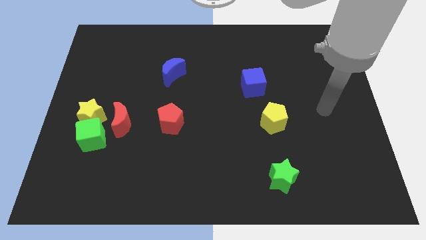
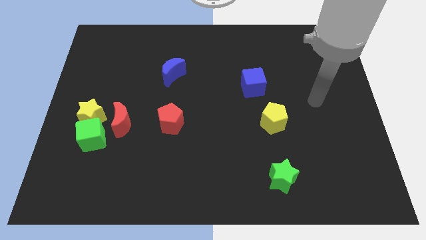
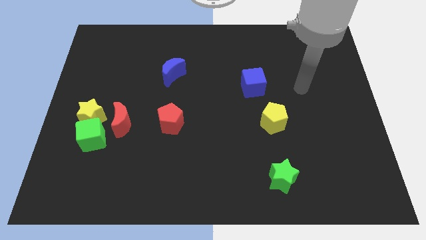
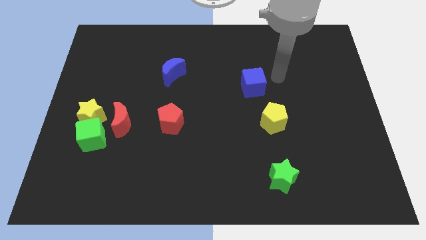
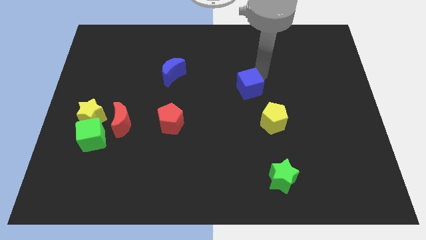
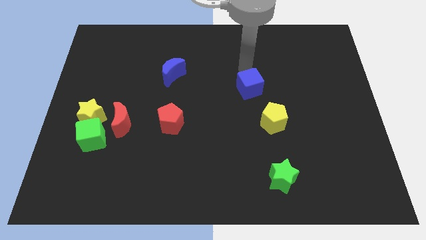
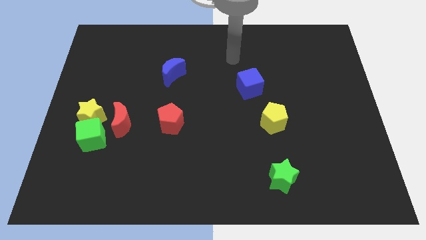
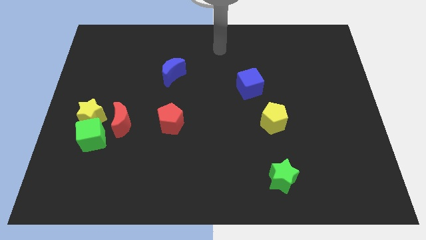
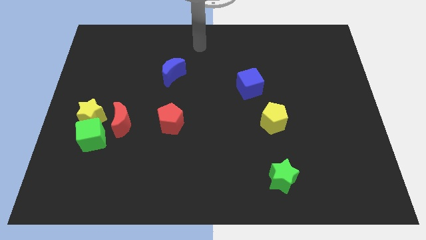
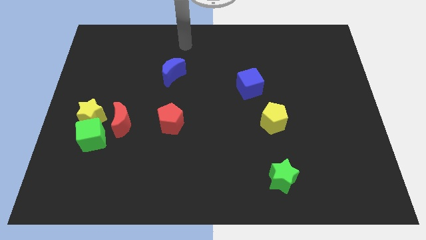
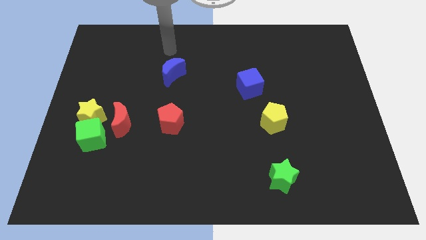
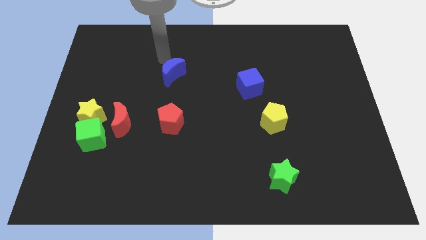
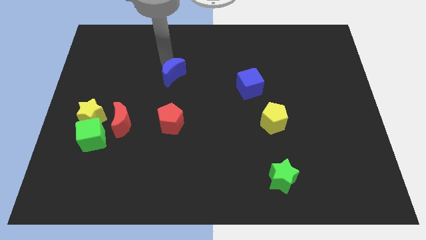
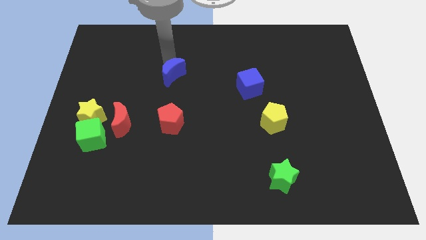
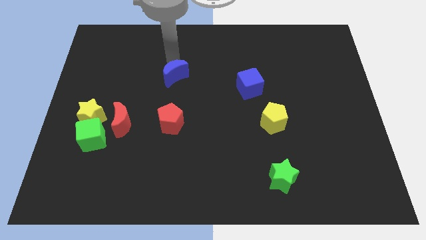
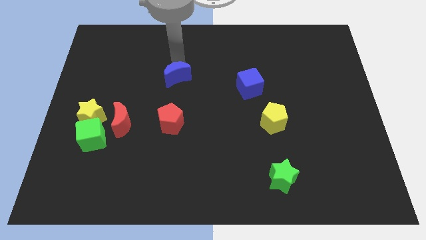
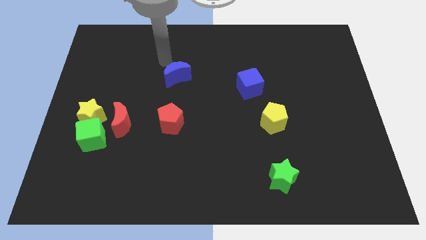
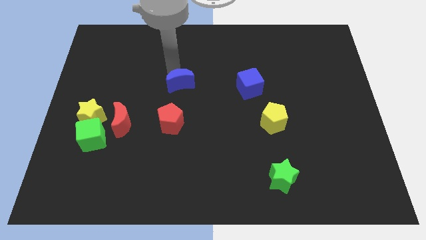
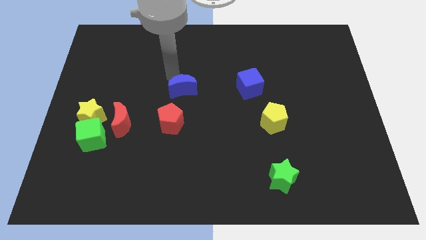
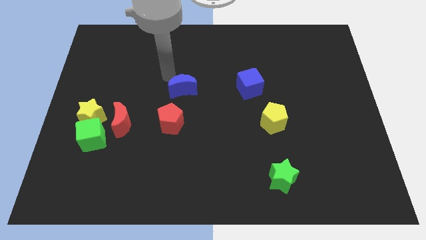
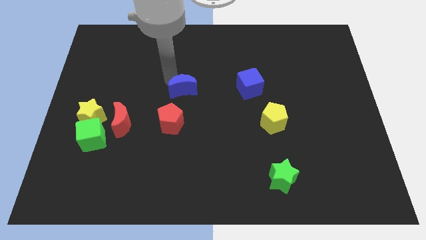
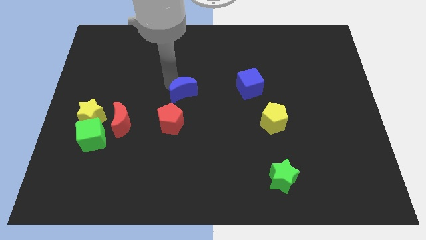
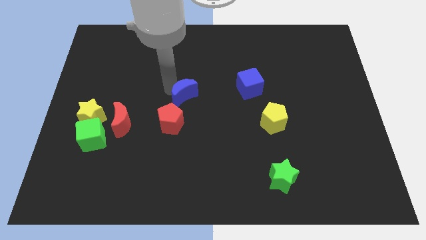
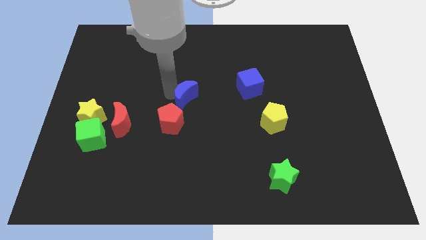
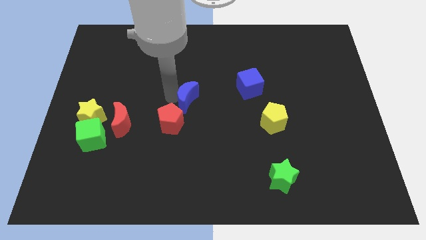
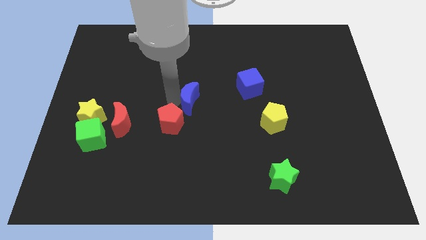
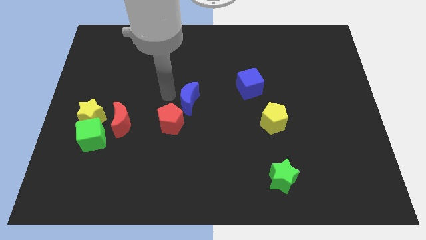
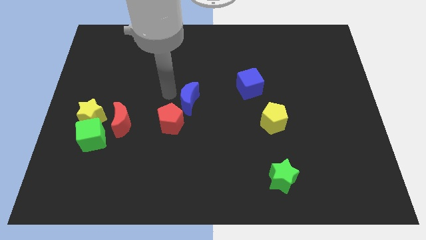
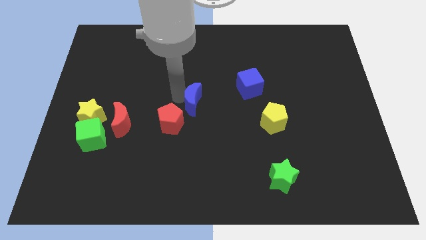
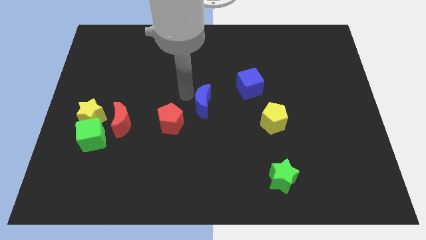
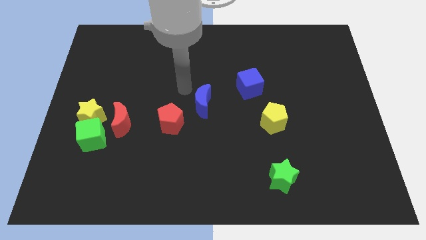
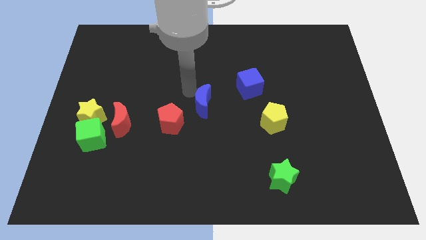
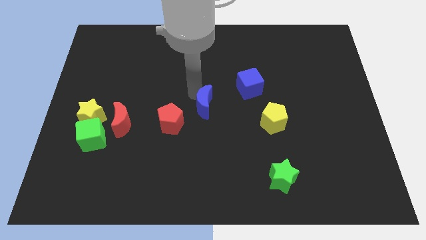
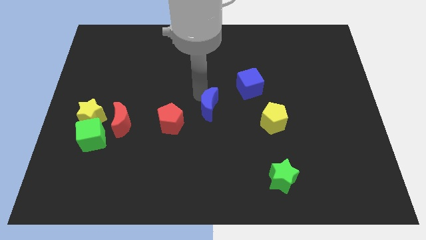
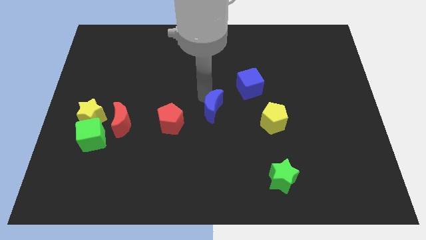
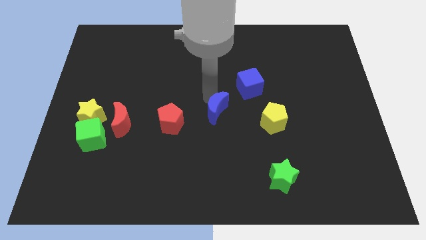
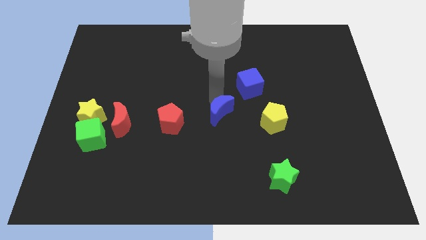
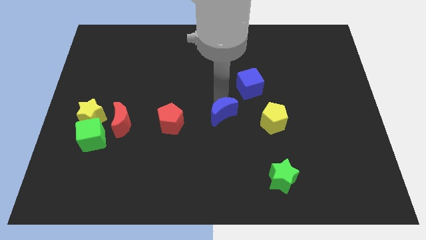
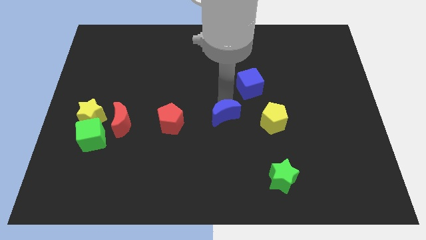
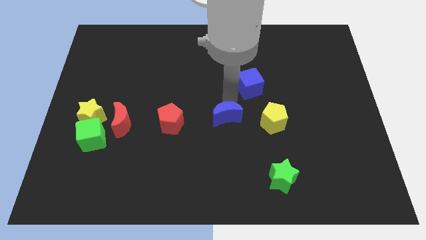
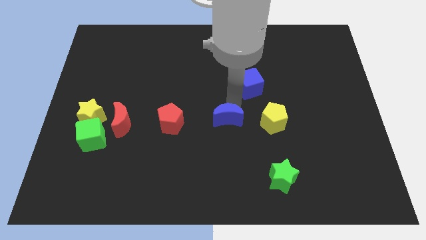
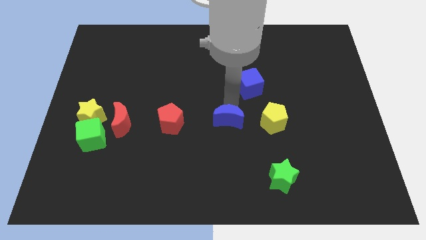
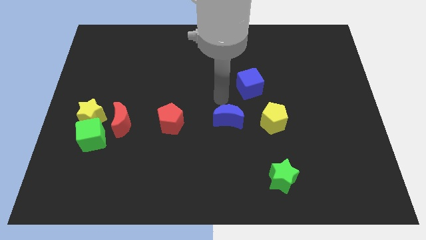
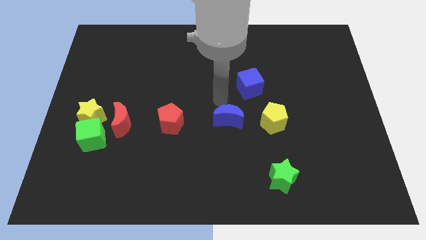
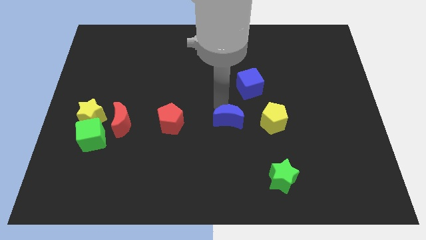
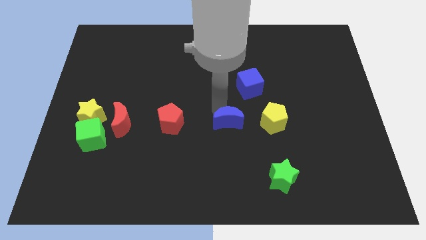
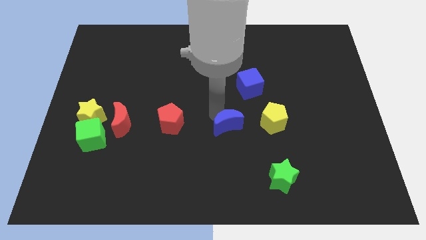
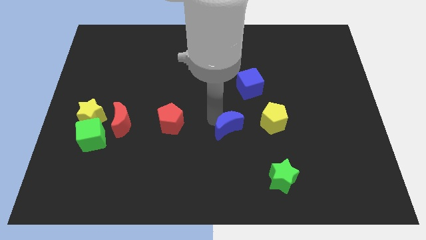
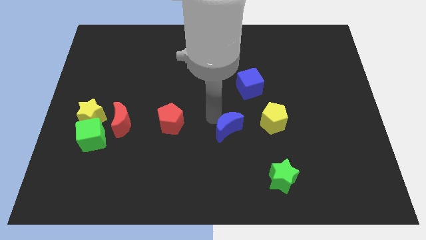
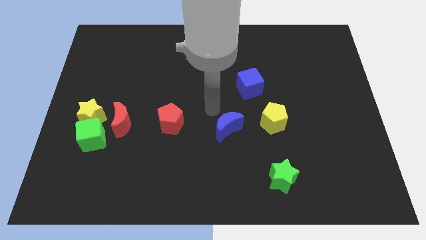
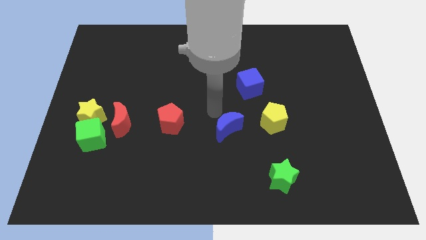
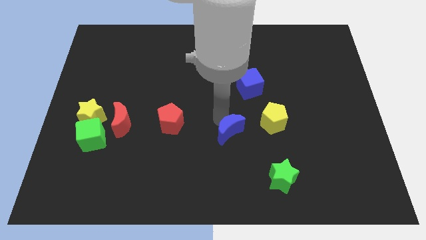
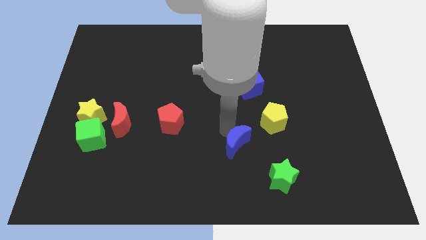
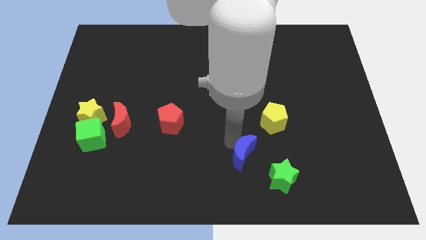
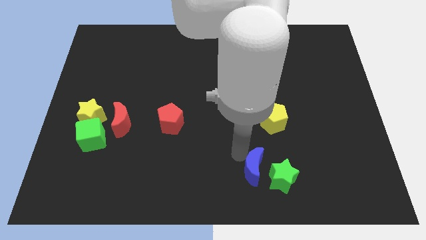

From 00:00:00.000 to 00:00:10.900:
push the blue moon towards the green star

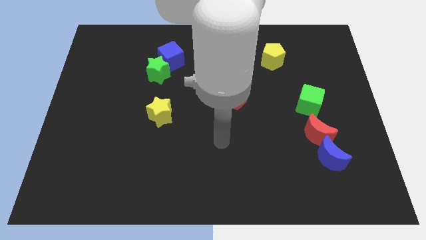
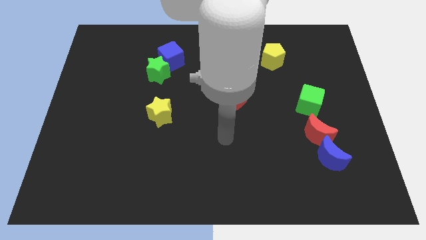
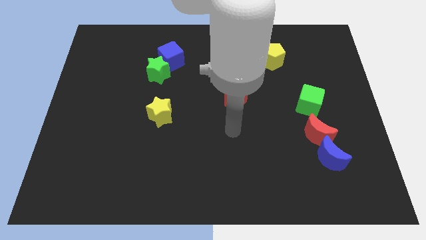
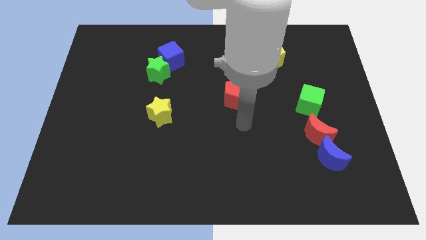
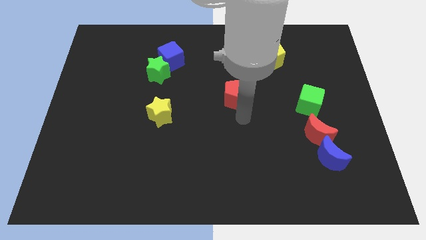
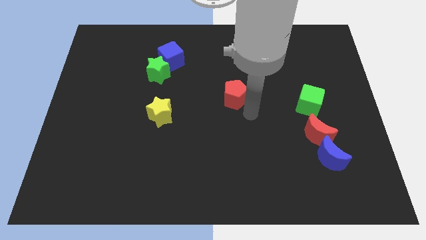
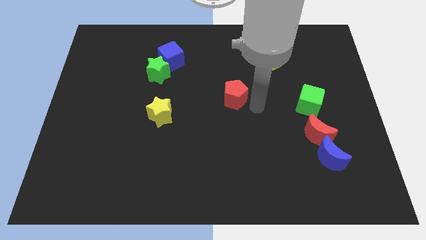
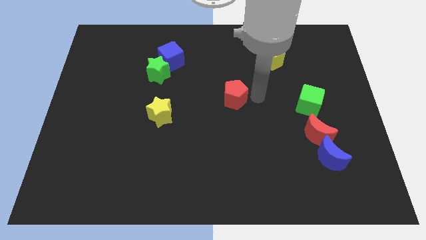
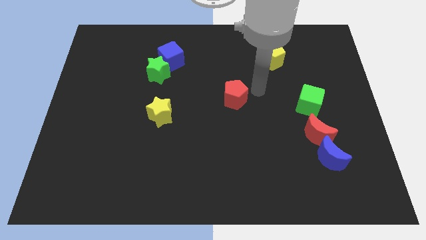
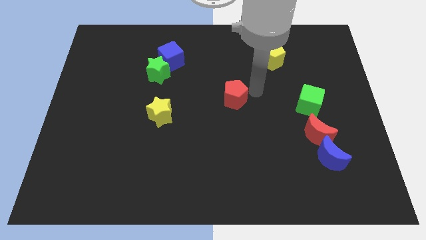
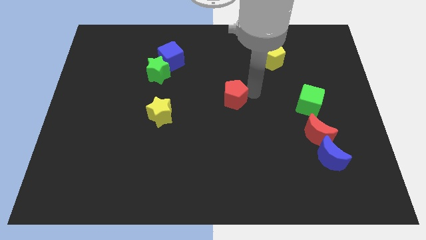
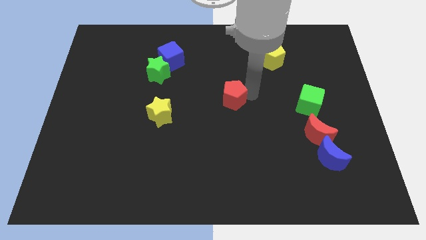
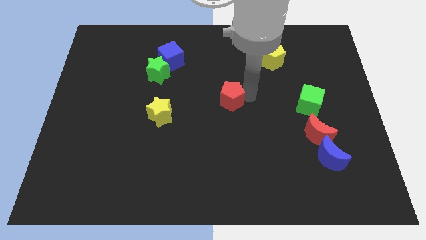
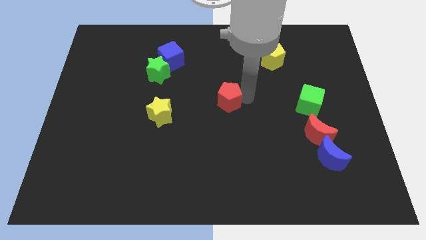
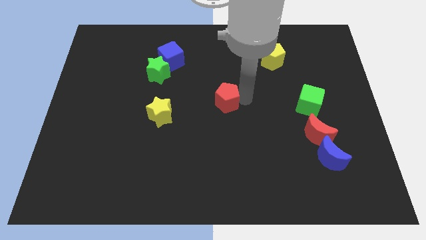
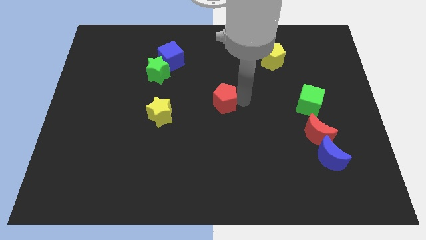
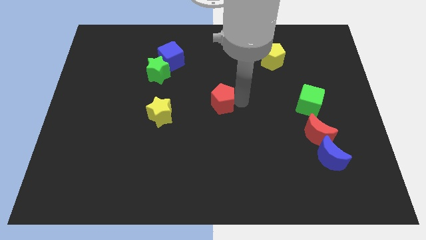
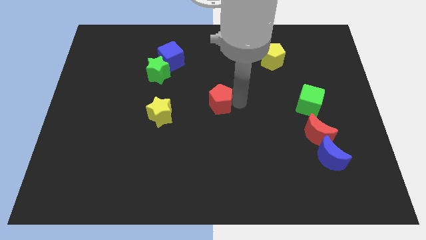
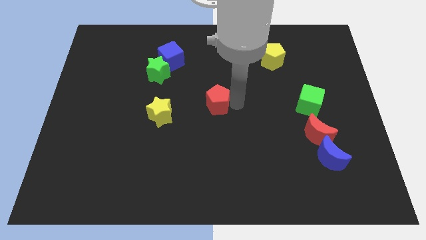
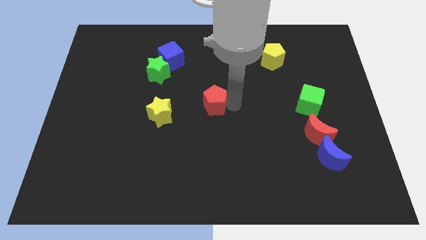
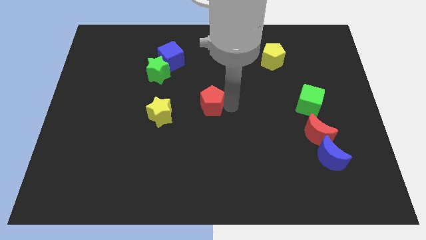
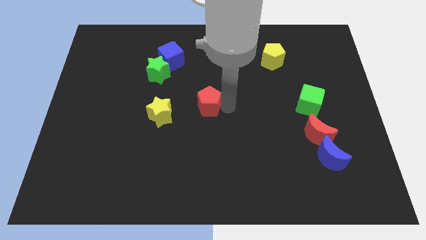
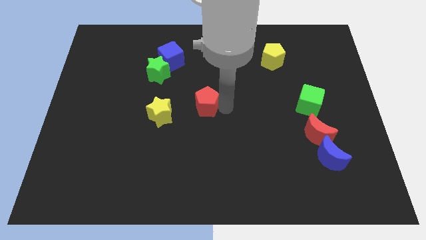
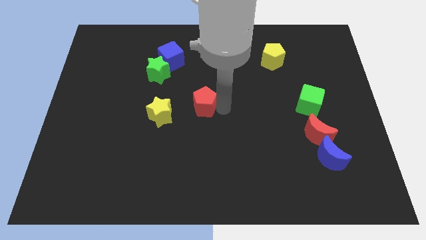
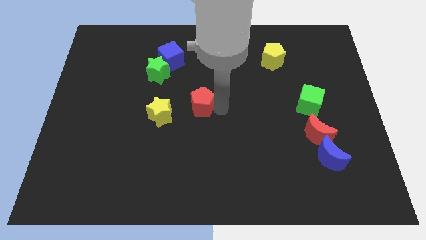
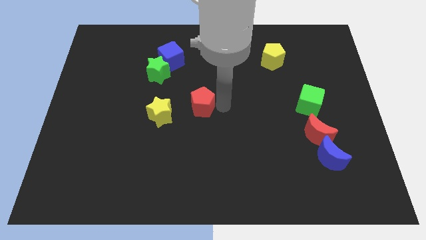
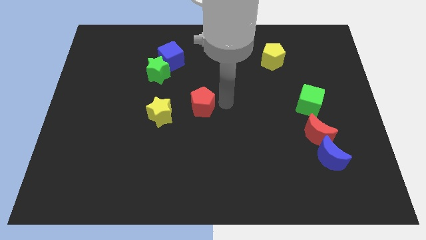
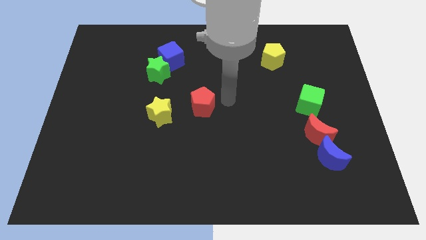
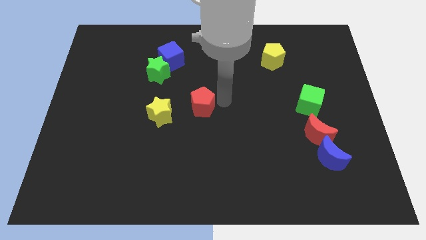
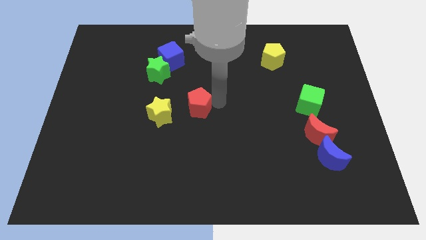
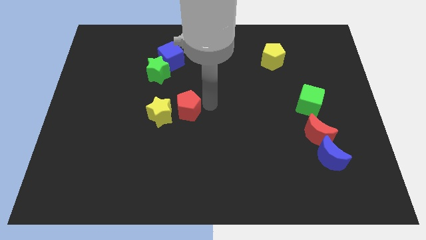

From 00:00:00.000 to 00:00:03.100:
move the red pentagon towards the yellow star

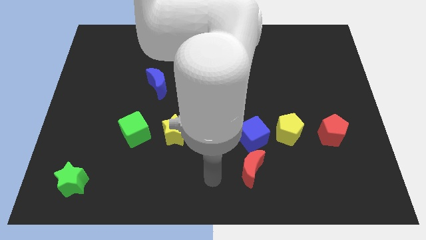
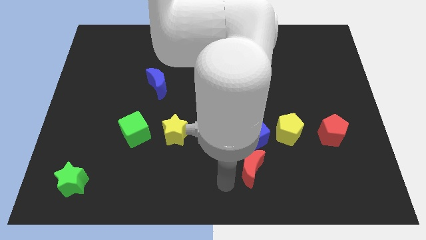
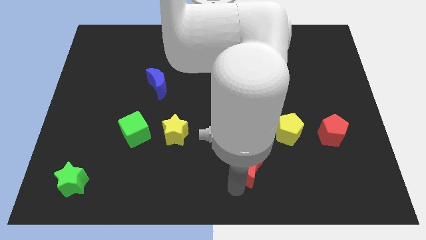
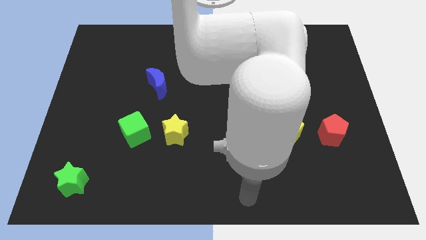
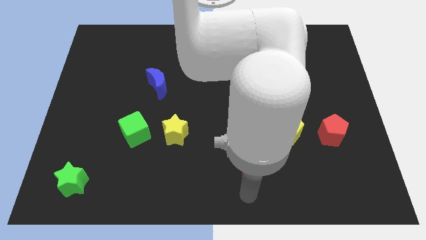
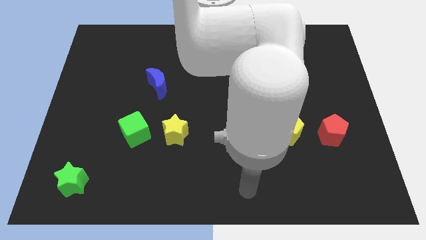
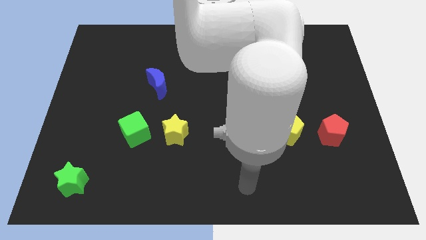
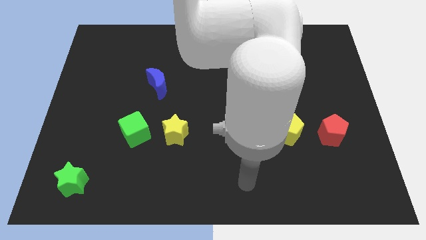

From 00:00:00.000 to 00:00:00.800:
put the red moon next to the blue cube
